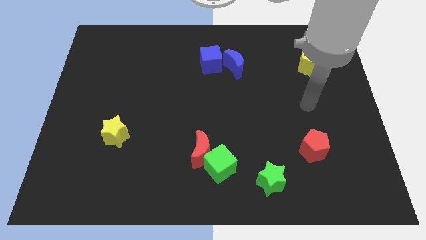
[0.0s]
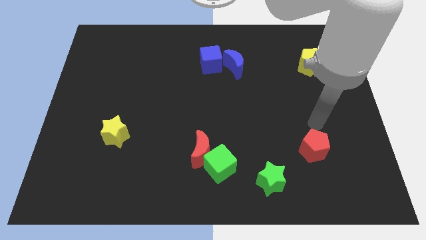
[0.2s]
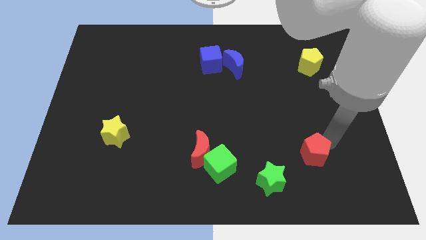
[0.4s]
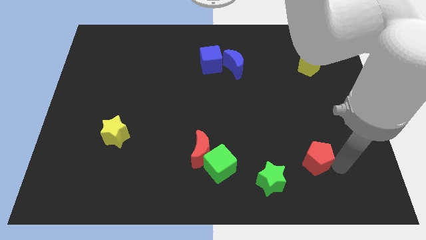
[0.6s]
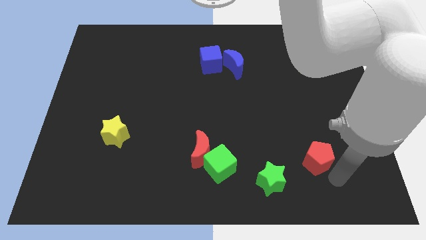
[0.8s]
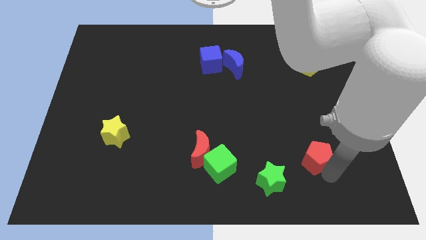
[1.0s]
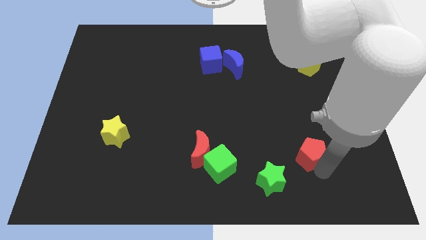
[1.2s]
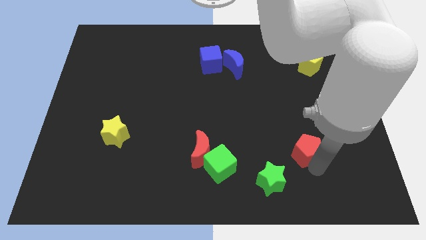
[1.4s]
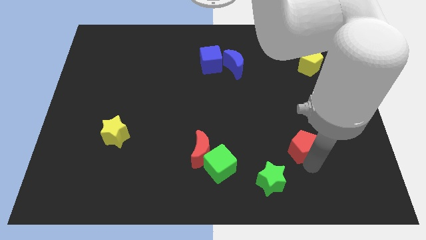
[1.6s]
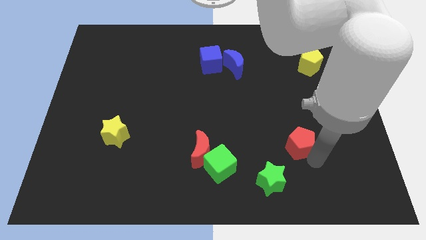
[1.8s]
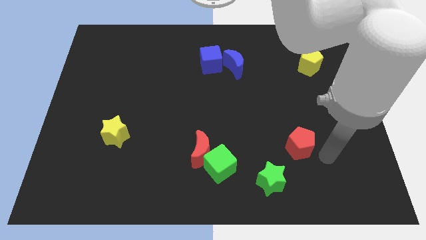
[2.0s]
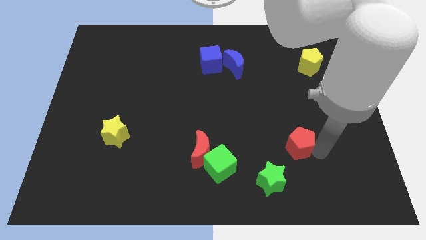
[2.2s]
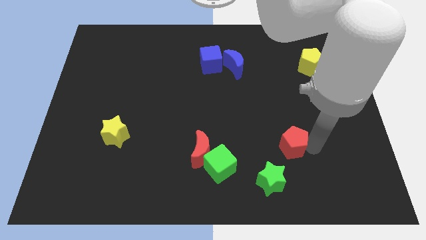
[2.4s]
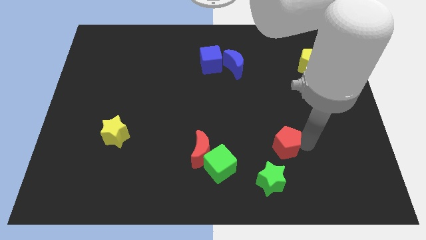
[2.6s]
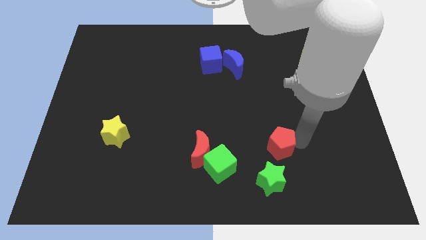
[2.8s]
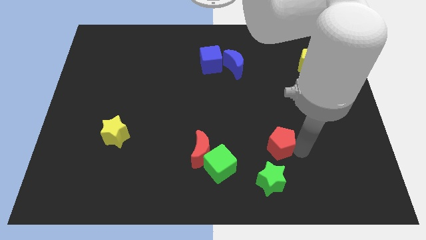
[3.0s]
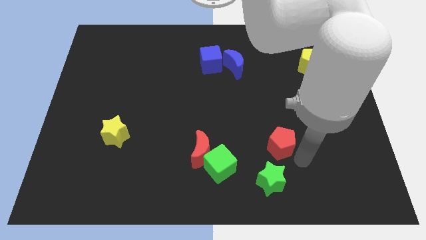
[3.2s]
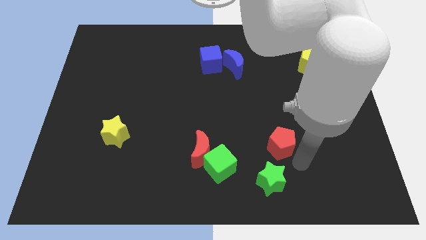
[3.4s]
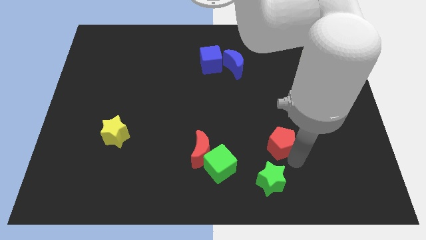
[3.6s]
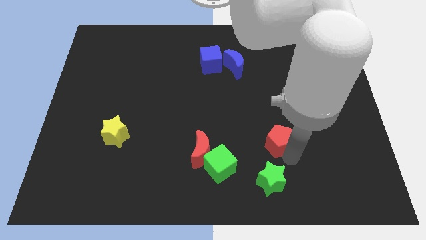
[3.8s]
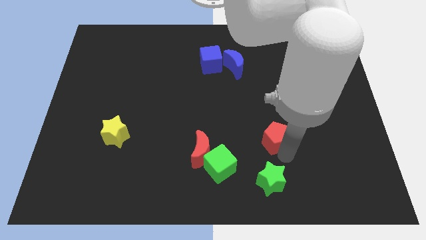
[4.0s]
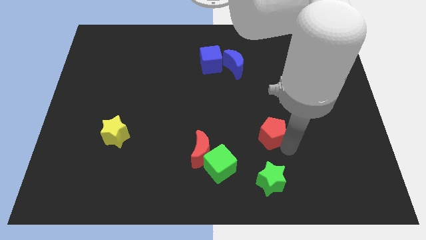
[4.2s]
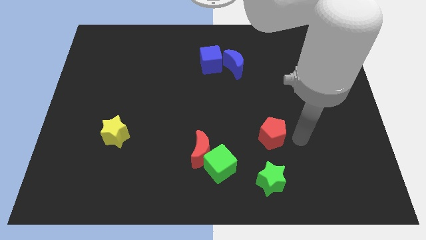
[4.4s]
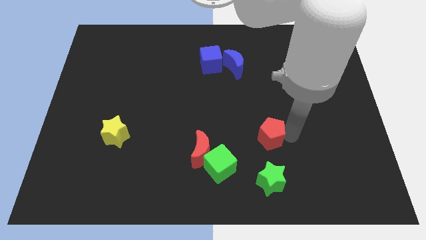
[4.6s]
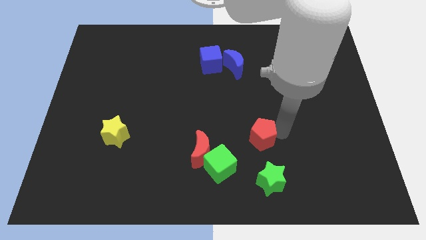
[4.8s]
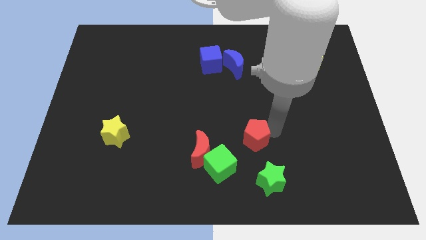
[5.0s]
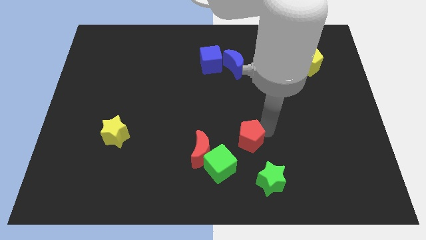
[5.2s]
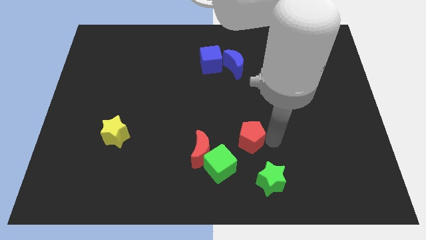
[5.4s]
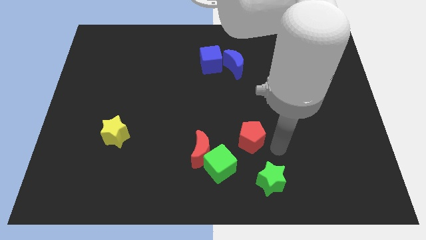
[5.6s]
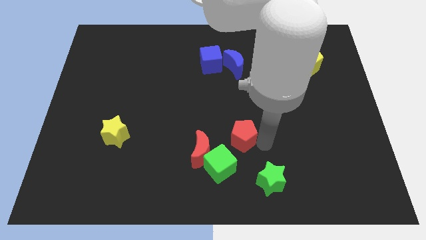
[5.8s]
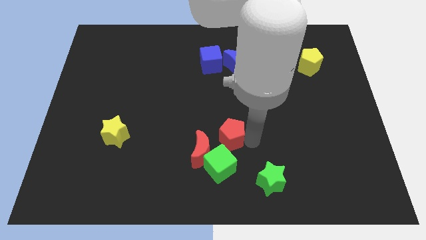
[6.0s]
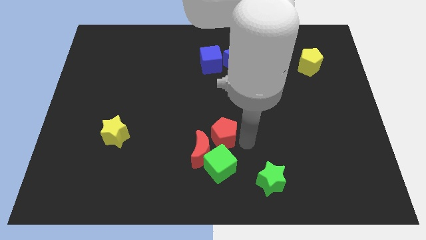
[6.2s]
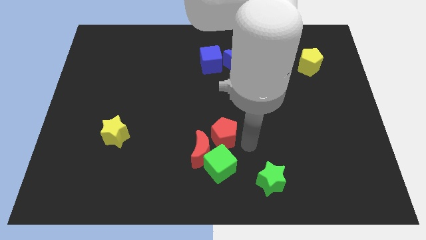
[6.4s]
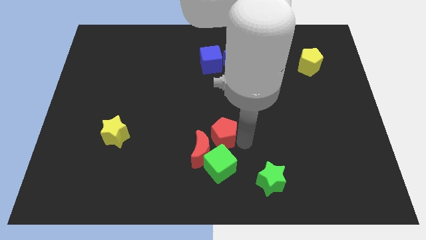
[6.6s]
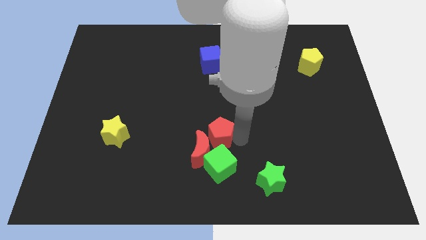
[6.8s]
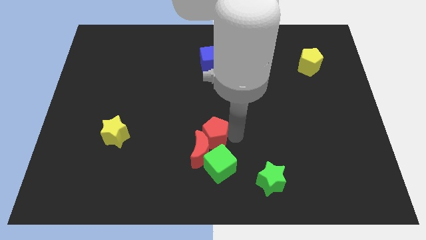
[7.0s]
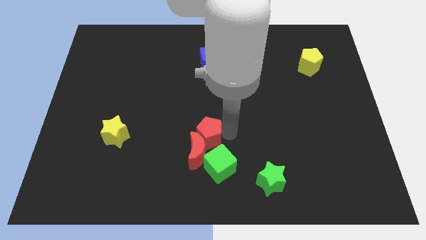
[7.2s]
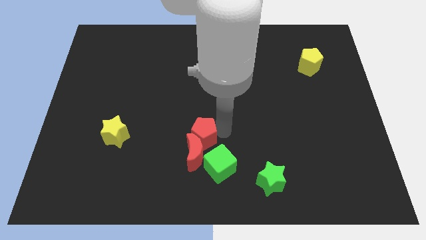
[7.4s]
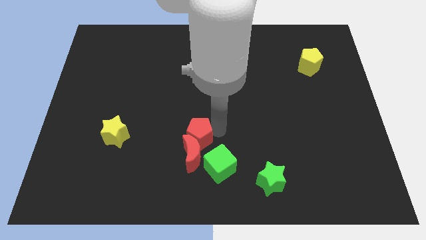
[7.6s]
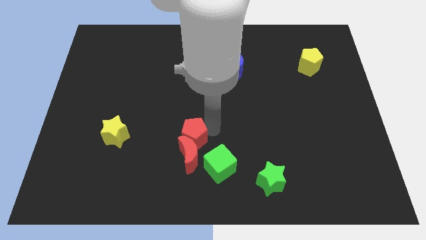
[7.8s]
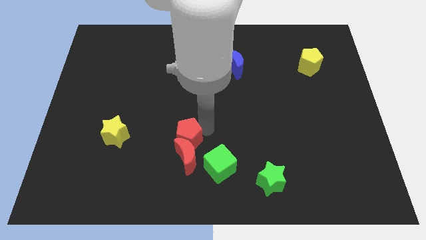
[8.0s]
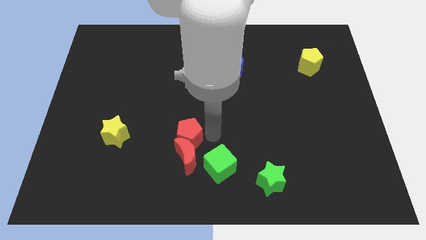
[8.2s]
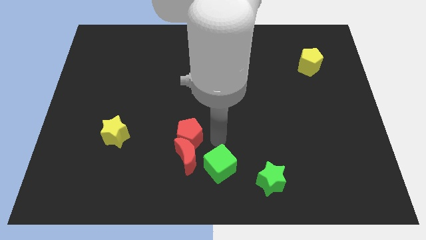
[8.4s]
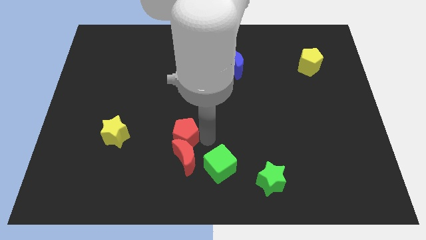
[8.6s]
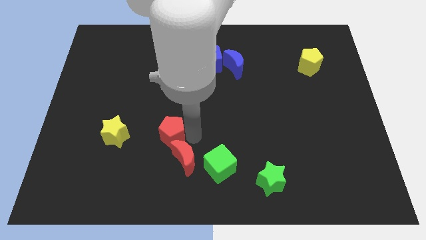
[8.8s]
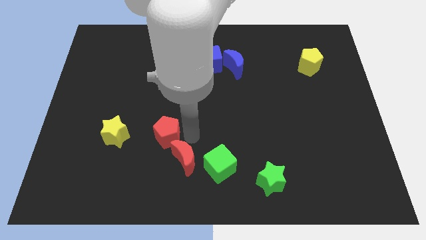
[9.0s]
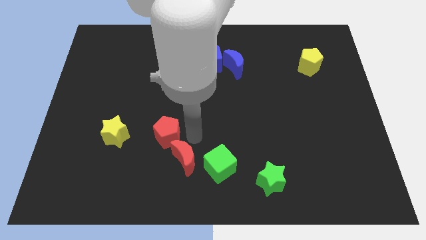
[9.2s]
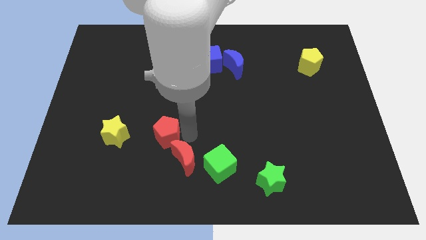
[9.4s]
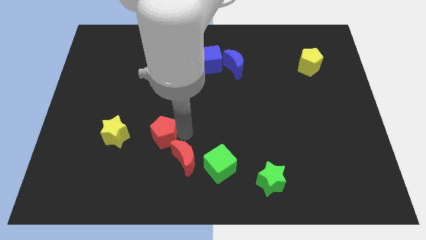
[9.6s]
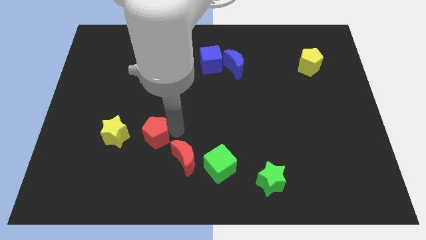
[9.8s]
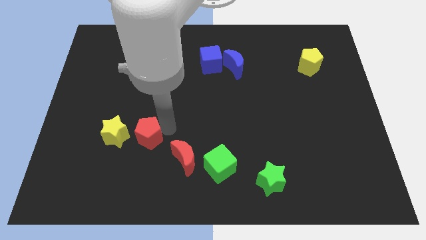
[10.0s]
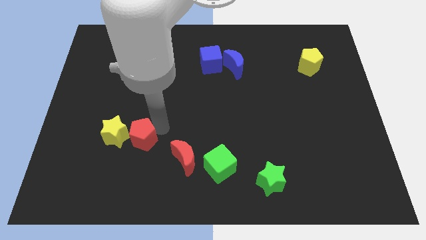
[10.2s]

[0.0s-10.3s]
slide the red pentagon next to the yellow star

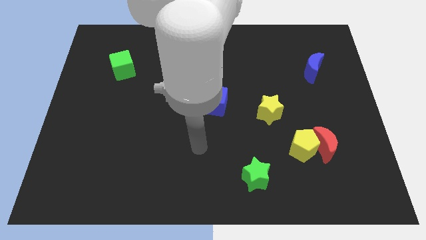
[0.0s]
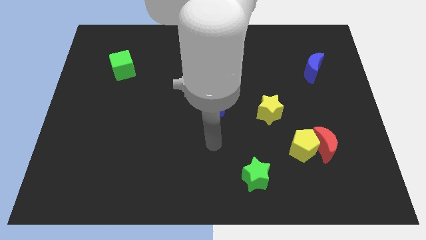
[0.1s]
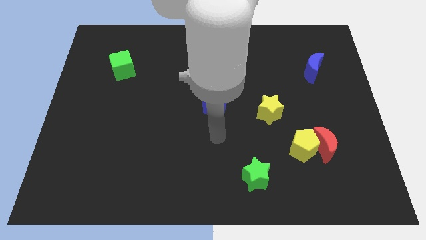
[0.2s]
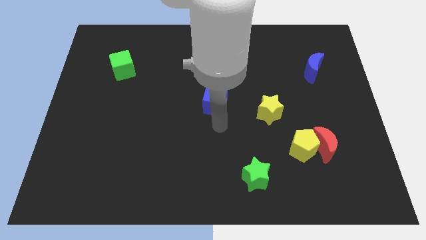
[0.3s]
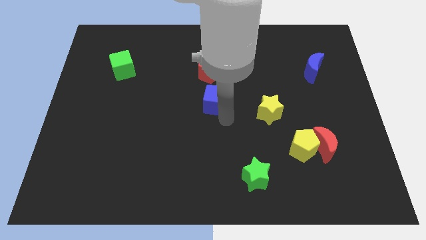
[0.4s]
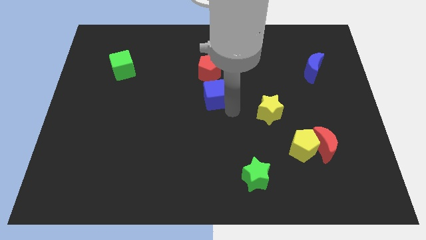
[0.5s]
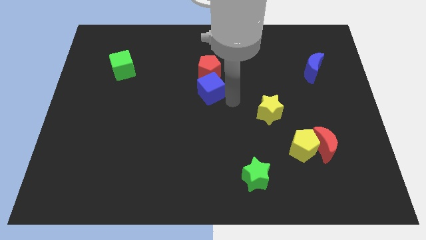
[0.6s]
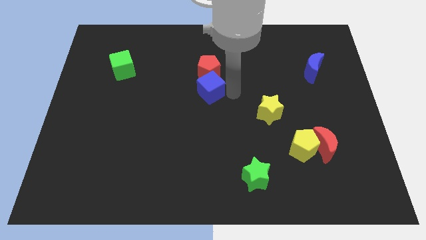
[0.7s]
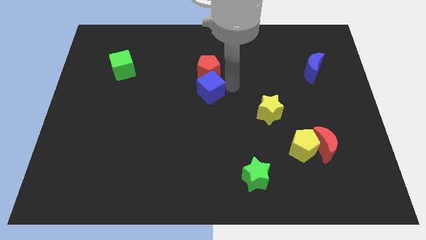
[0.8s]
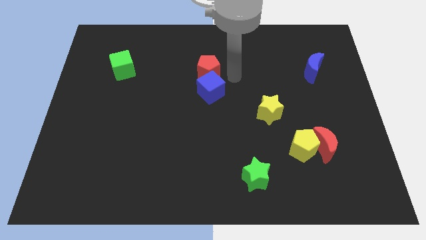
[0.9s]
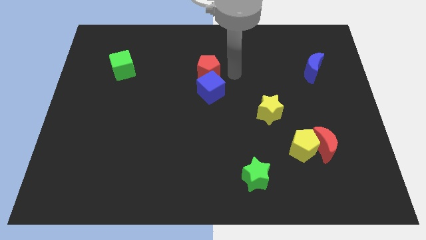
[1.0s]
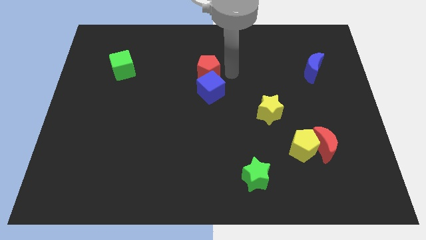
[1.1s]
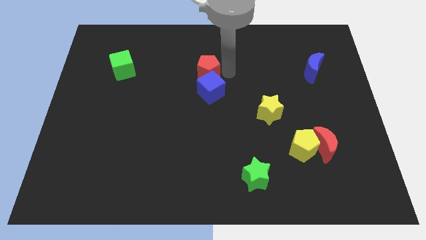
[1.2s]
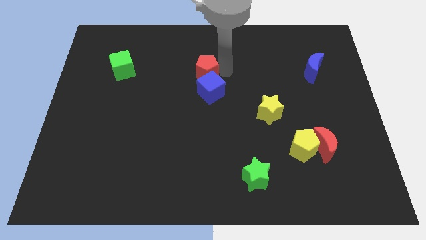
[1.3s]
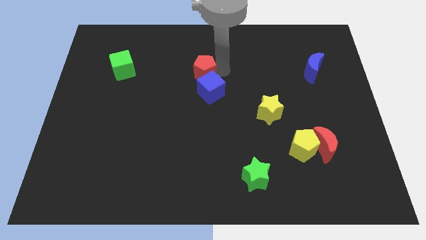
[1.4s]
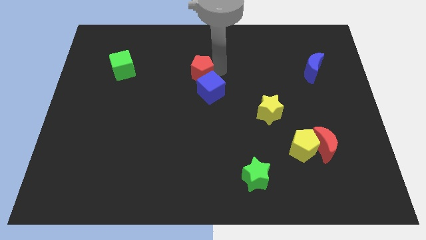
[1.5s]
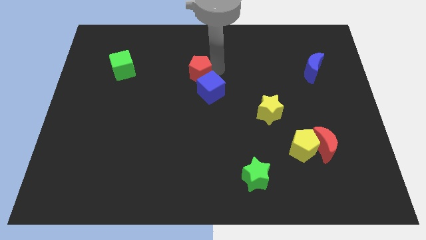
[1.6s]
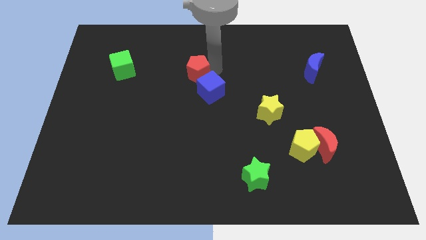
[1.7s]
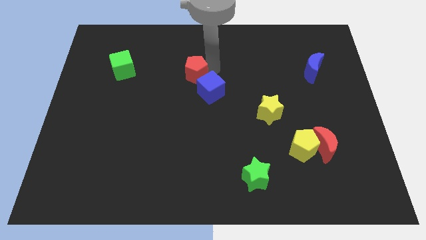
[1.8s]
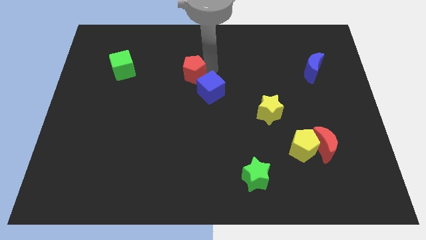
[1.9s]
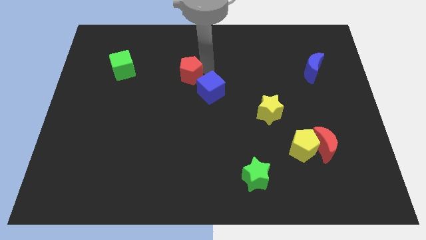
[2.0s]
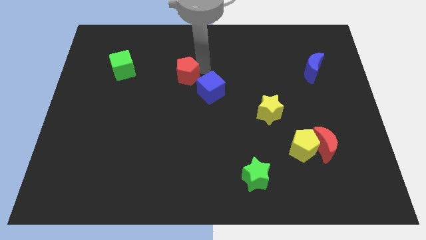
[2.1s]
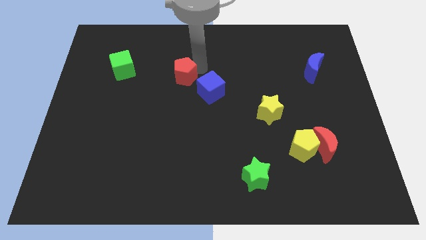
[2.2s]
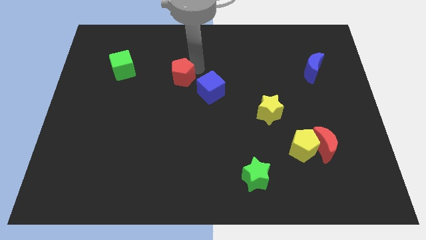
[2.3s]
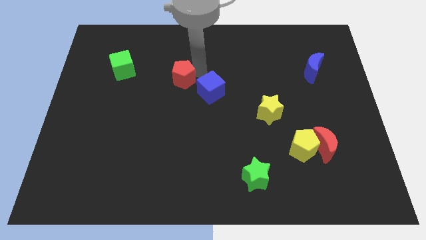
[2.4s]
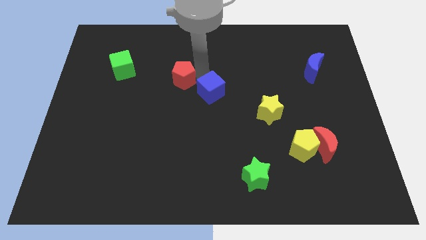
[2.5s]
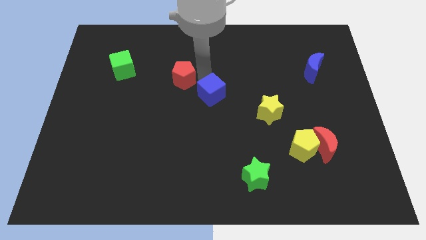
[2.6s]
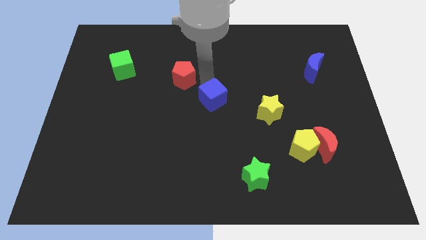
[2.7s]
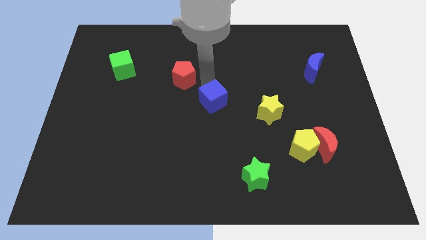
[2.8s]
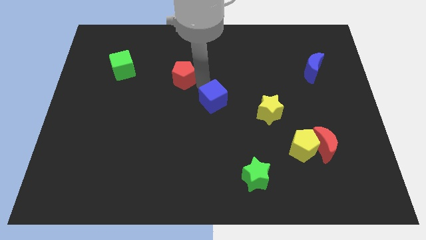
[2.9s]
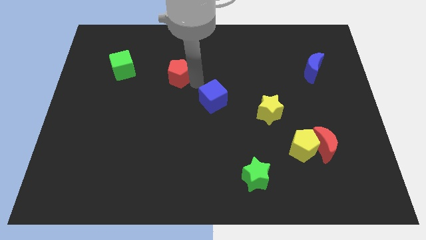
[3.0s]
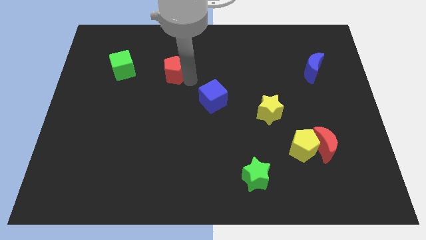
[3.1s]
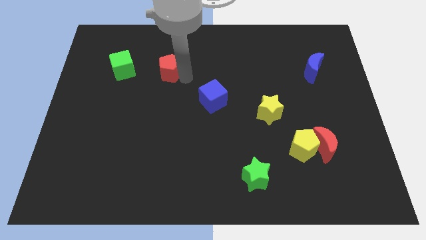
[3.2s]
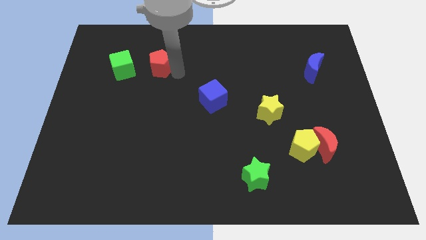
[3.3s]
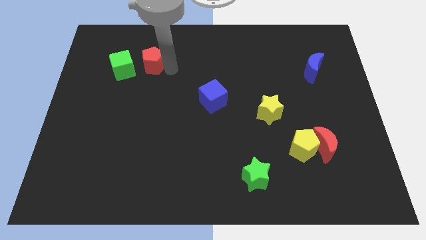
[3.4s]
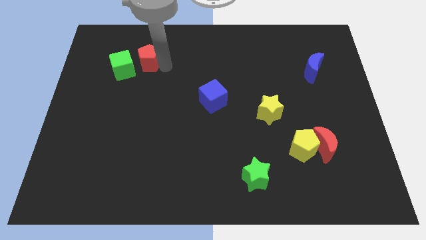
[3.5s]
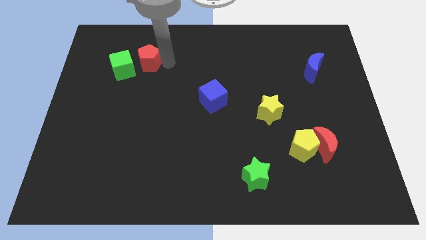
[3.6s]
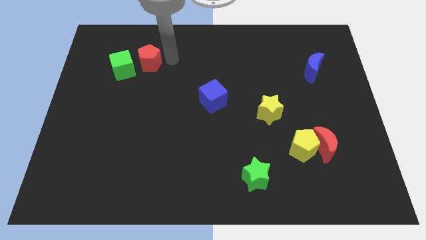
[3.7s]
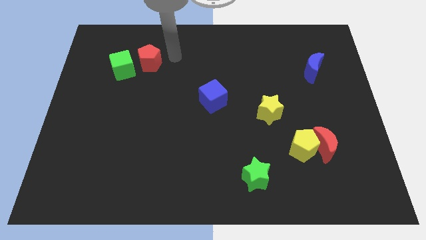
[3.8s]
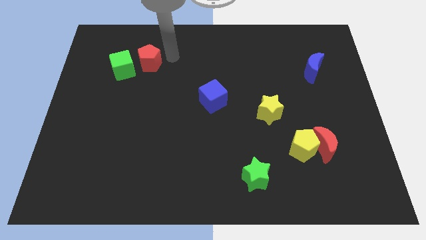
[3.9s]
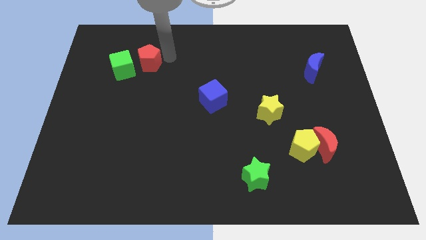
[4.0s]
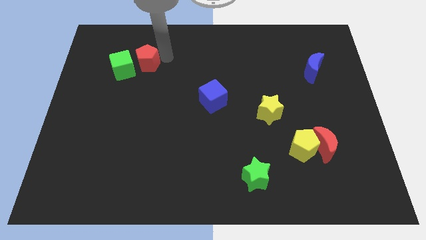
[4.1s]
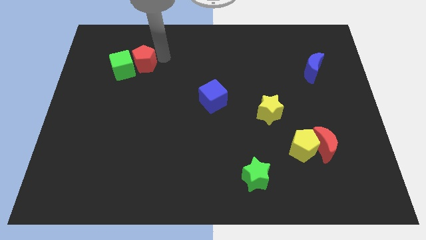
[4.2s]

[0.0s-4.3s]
put the red pentagon next to the green cube
